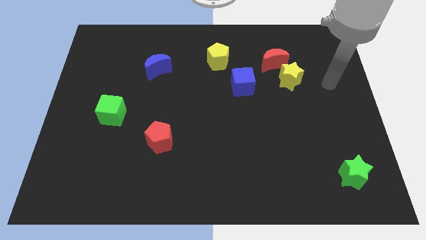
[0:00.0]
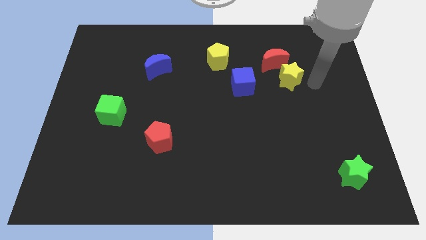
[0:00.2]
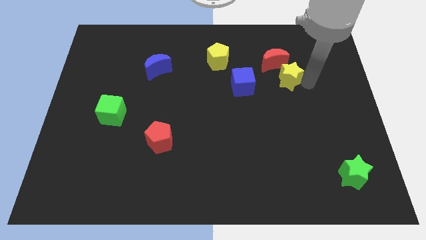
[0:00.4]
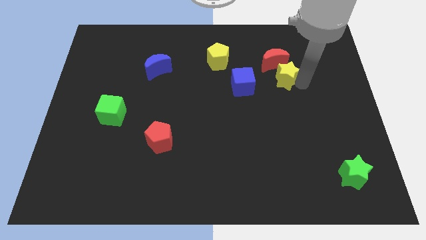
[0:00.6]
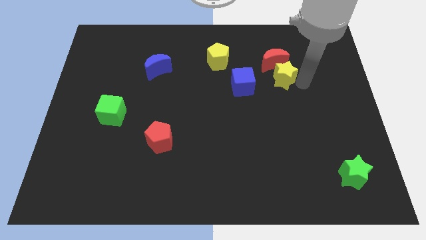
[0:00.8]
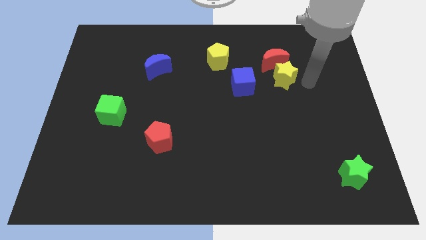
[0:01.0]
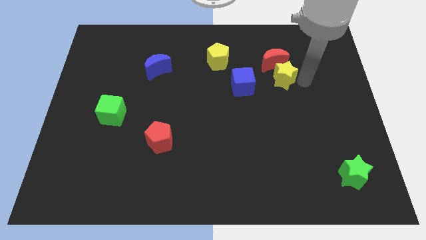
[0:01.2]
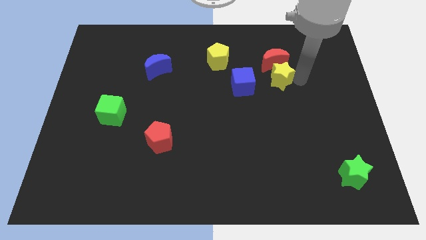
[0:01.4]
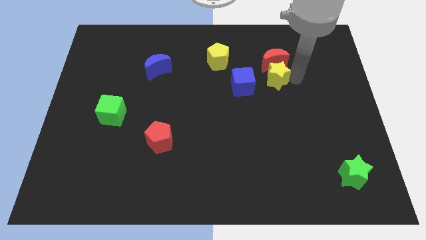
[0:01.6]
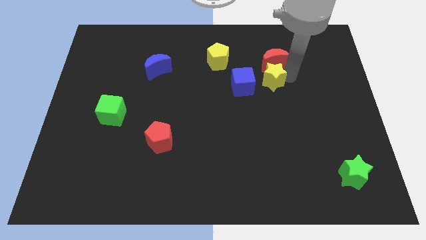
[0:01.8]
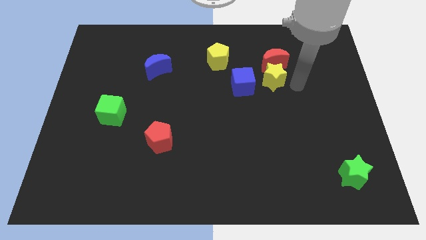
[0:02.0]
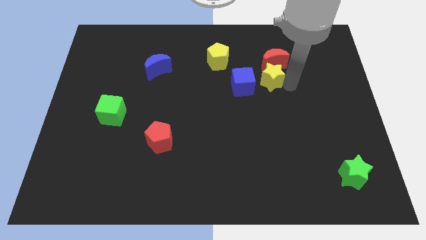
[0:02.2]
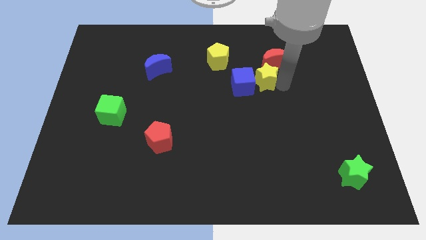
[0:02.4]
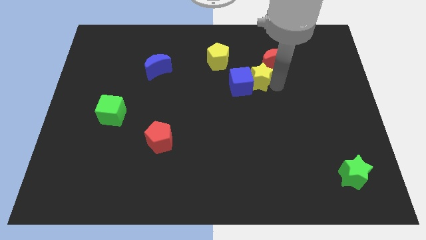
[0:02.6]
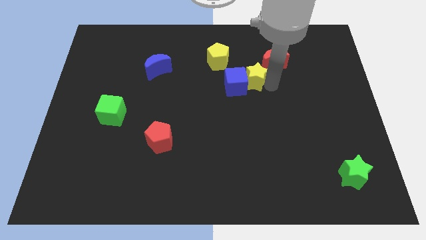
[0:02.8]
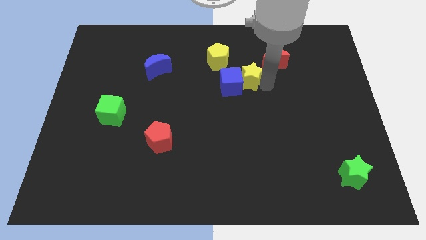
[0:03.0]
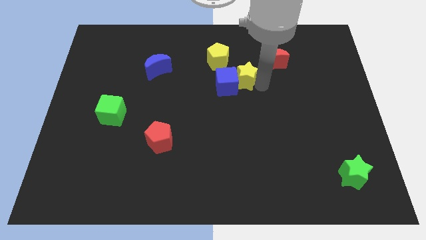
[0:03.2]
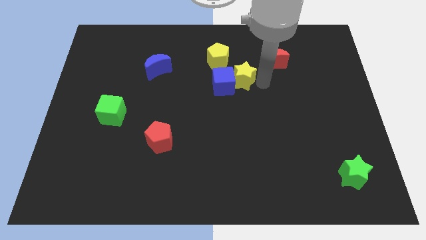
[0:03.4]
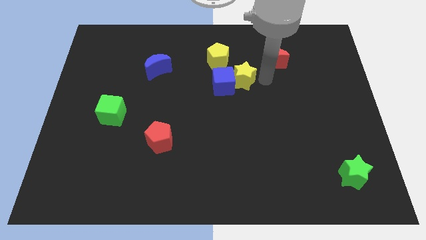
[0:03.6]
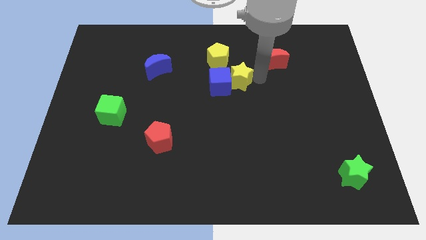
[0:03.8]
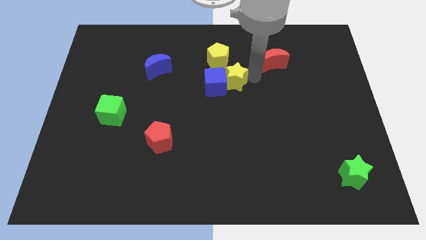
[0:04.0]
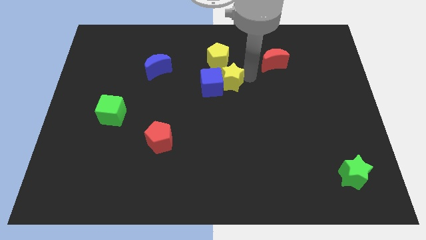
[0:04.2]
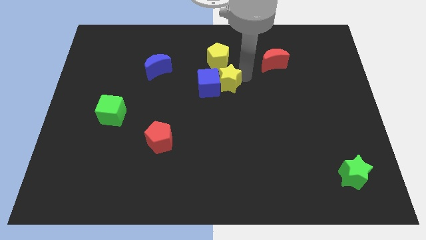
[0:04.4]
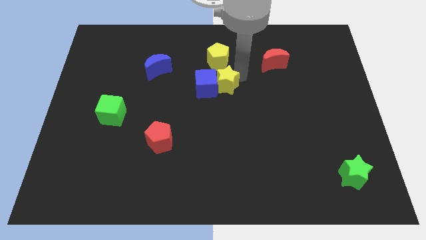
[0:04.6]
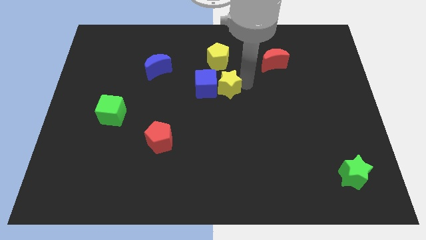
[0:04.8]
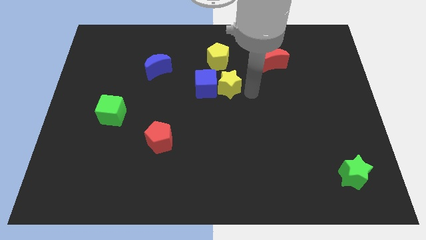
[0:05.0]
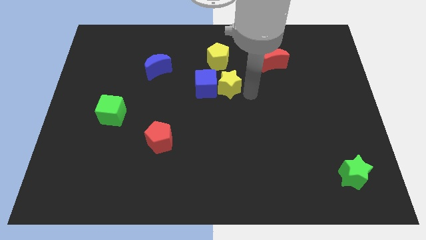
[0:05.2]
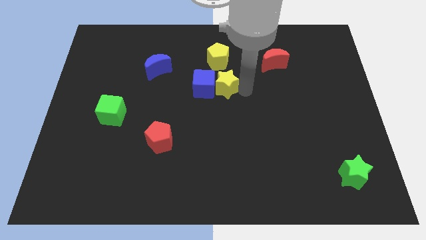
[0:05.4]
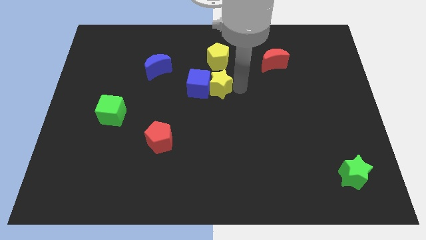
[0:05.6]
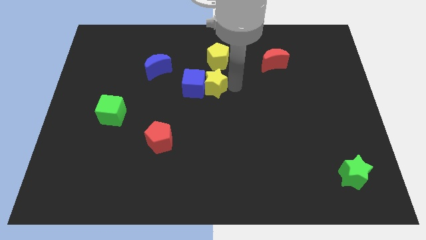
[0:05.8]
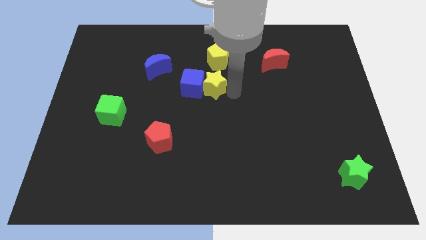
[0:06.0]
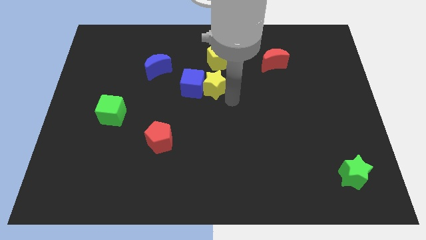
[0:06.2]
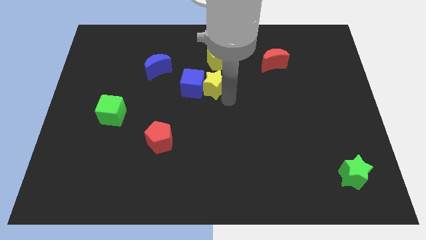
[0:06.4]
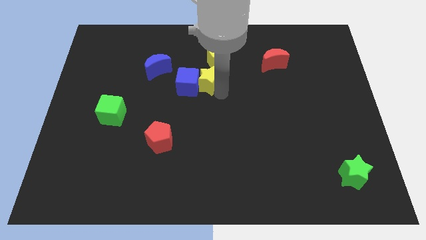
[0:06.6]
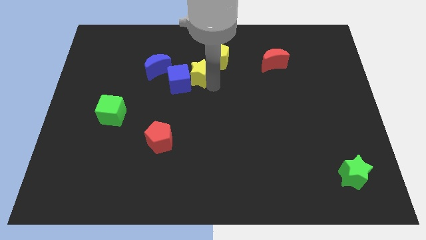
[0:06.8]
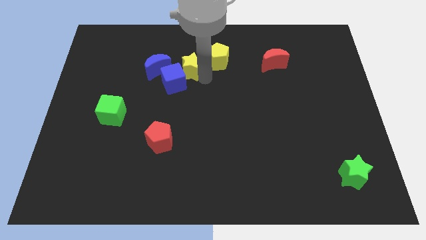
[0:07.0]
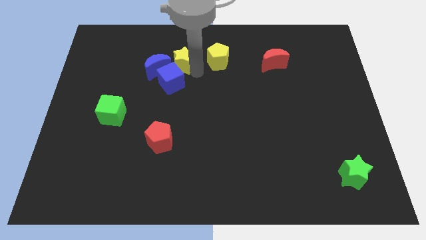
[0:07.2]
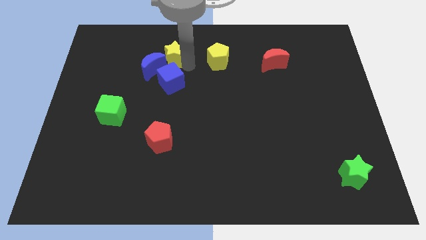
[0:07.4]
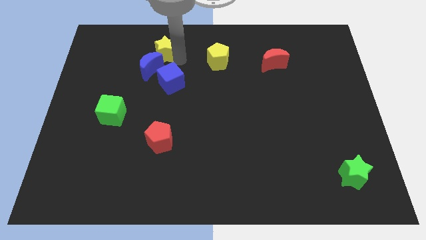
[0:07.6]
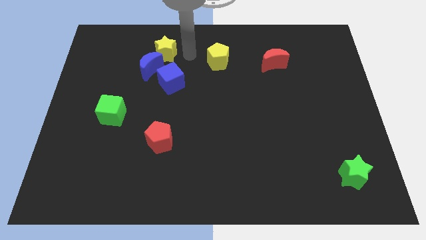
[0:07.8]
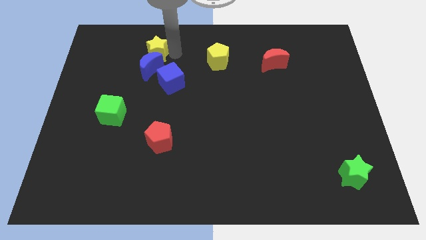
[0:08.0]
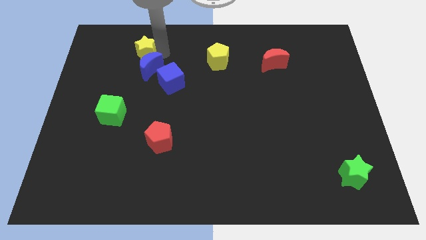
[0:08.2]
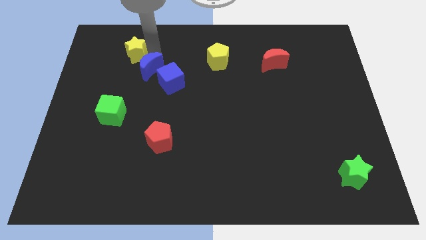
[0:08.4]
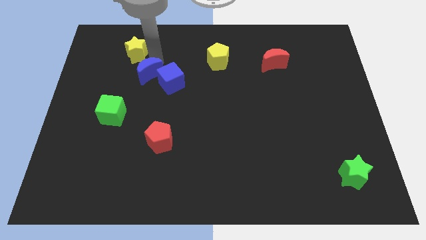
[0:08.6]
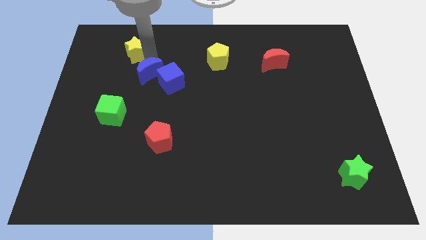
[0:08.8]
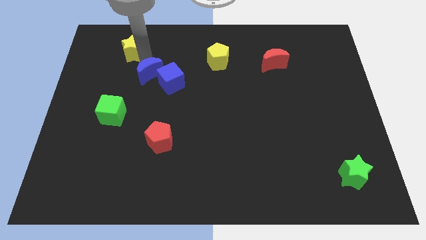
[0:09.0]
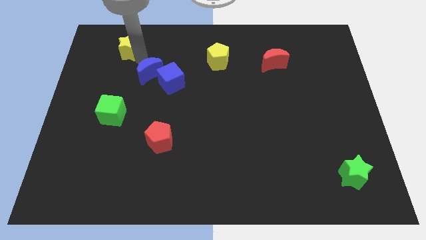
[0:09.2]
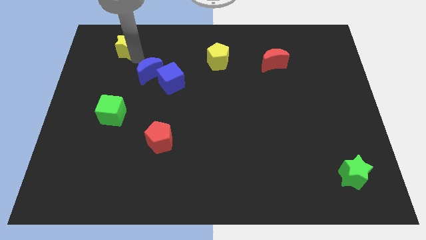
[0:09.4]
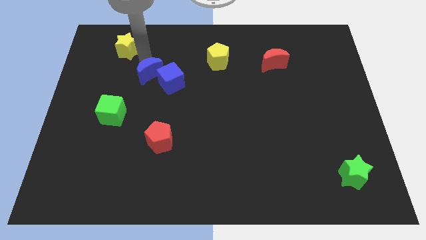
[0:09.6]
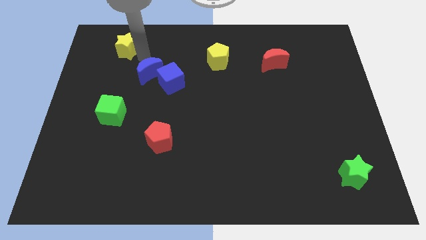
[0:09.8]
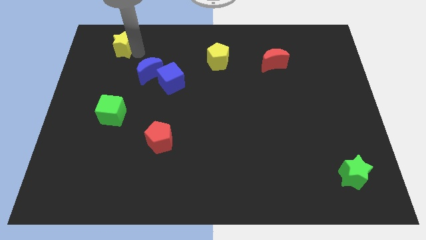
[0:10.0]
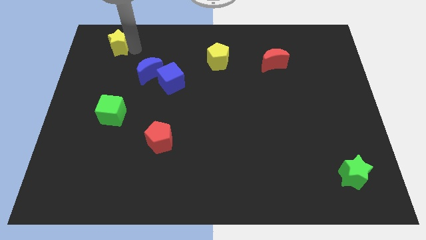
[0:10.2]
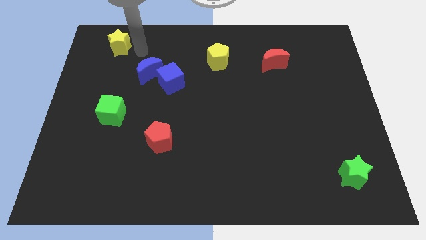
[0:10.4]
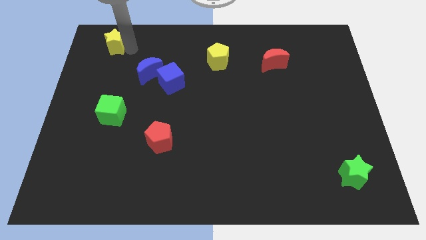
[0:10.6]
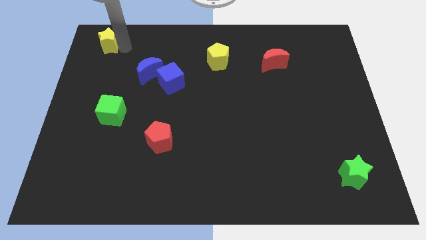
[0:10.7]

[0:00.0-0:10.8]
slide the yellow star to the top left corner
